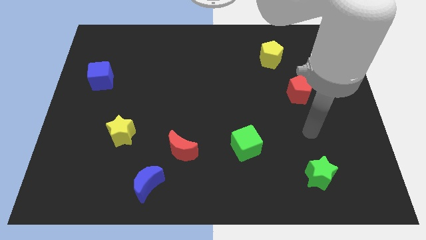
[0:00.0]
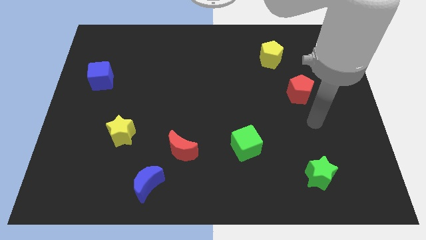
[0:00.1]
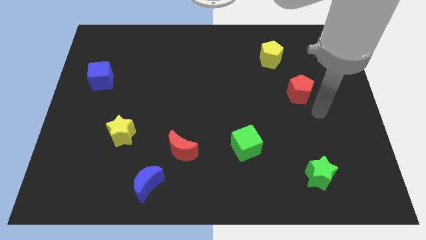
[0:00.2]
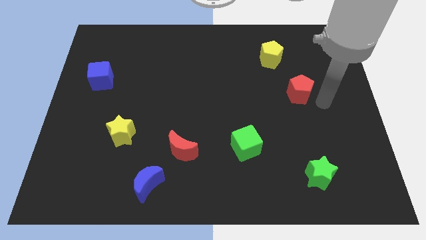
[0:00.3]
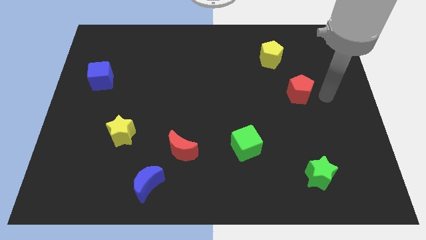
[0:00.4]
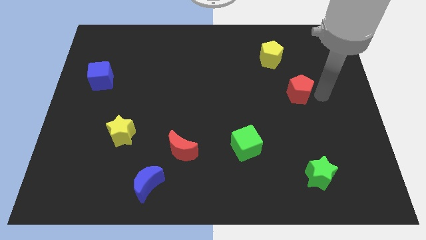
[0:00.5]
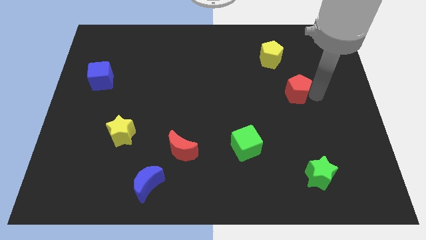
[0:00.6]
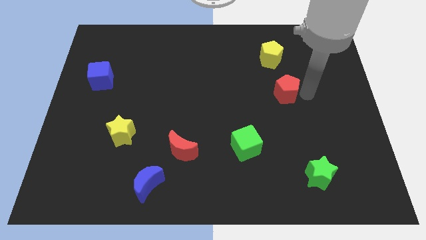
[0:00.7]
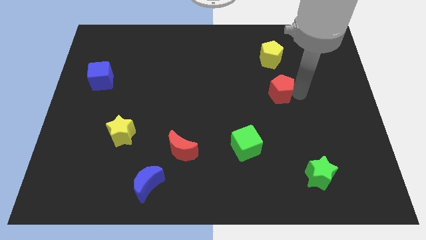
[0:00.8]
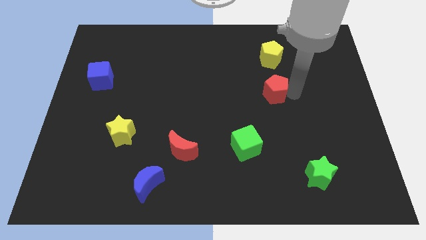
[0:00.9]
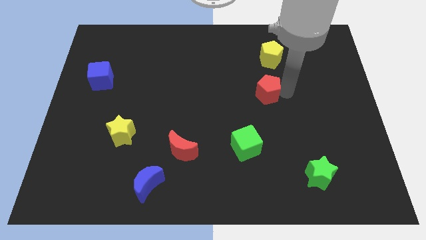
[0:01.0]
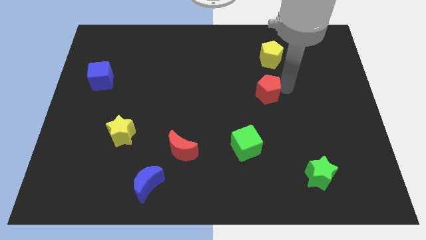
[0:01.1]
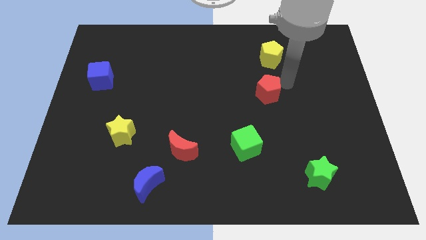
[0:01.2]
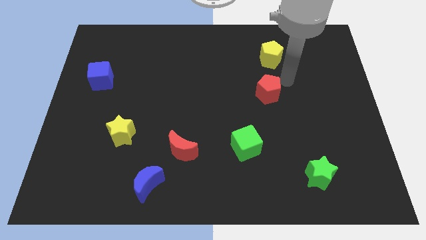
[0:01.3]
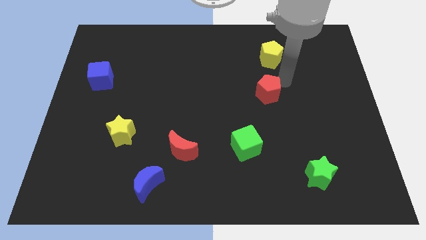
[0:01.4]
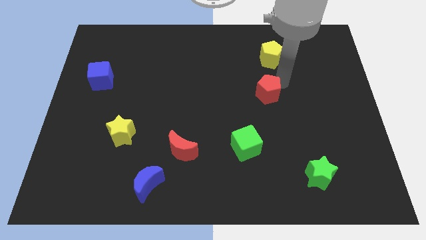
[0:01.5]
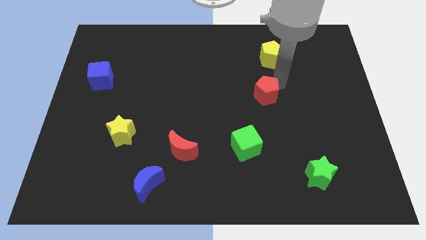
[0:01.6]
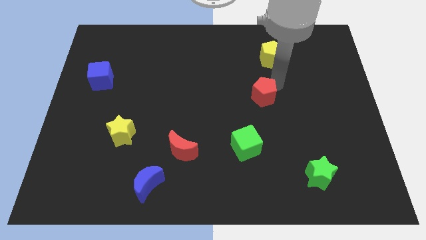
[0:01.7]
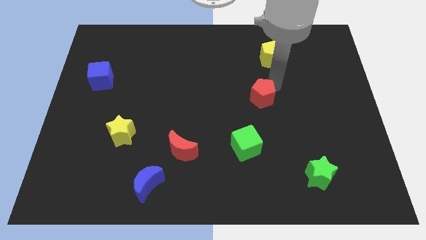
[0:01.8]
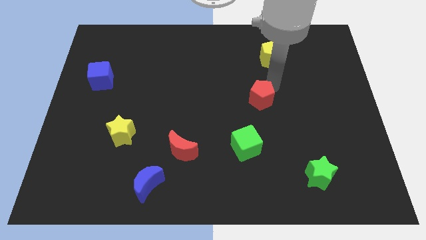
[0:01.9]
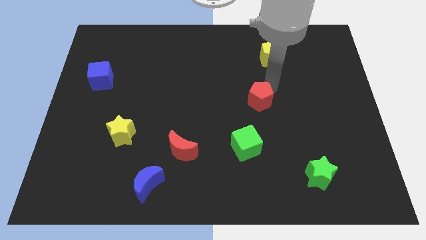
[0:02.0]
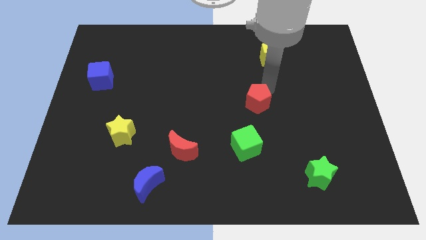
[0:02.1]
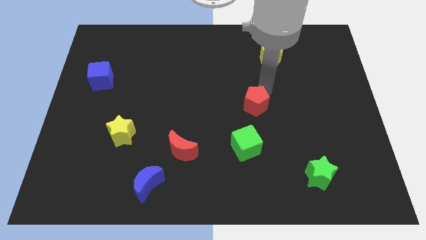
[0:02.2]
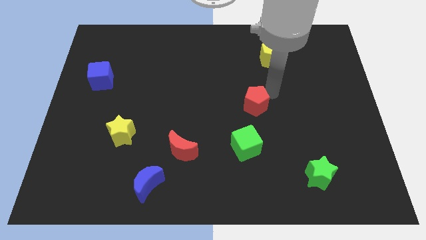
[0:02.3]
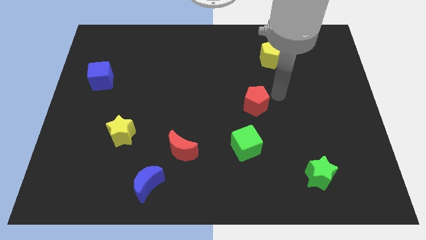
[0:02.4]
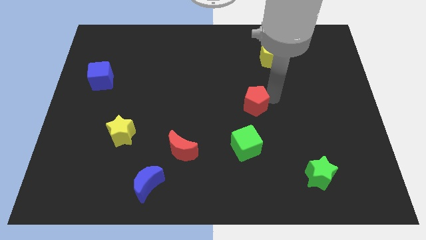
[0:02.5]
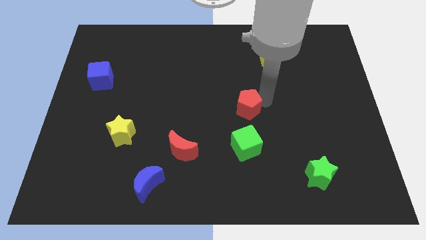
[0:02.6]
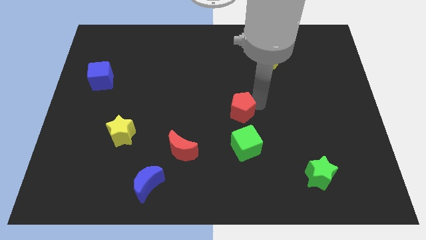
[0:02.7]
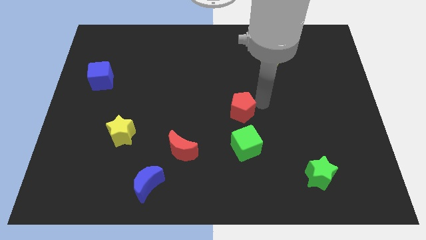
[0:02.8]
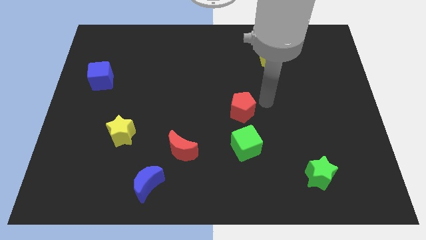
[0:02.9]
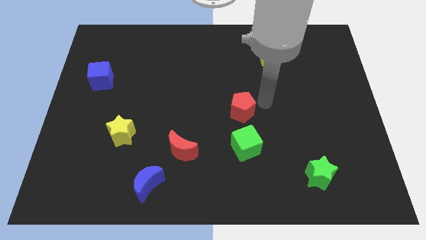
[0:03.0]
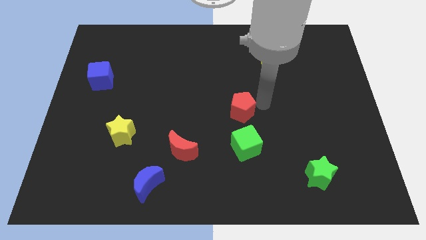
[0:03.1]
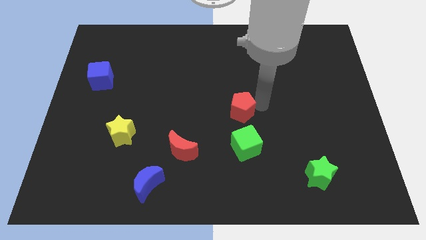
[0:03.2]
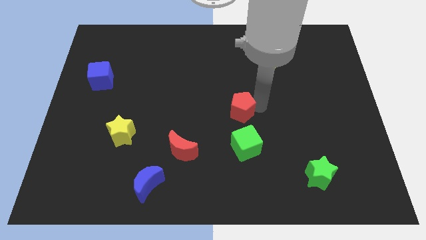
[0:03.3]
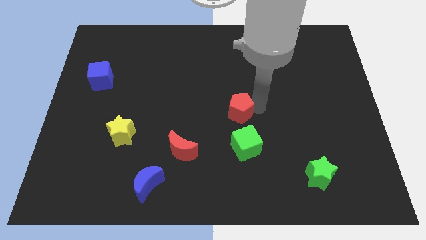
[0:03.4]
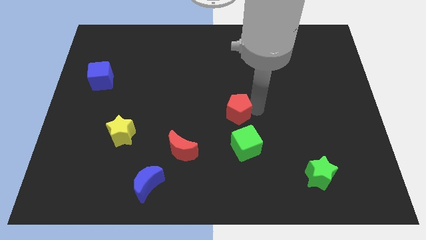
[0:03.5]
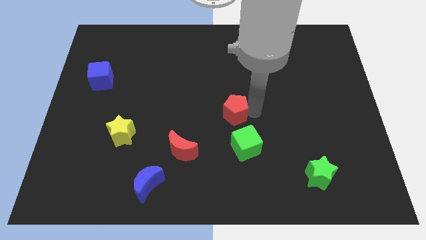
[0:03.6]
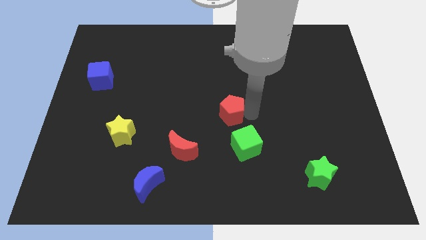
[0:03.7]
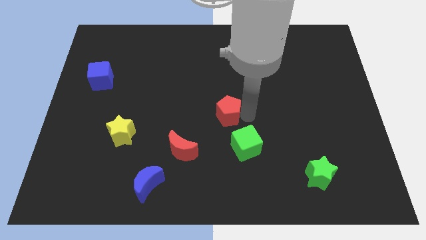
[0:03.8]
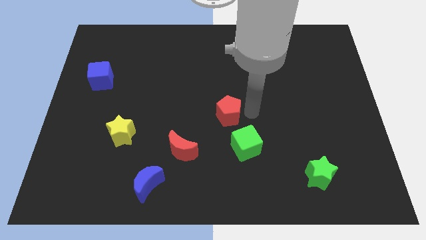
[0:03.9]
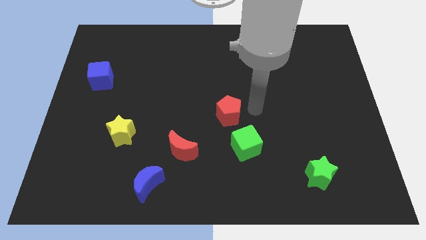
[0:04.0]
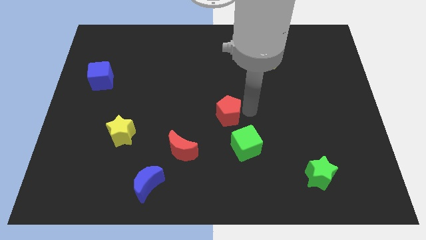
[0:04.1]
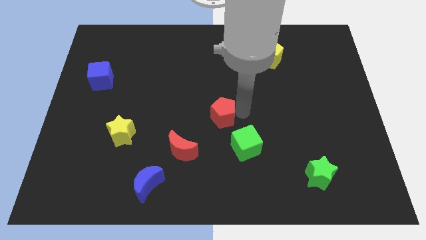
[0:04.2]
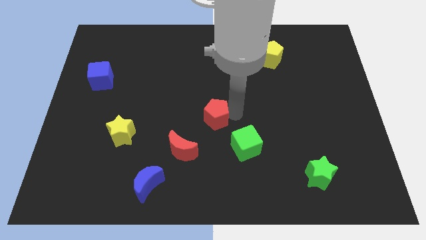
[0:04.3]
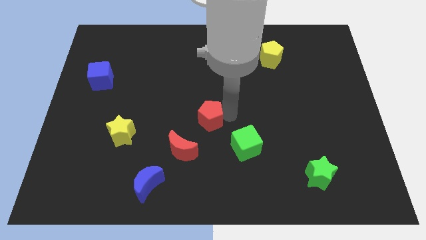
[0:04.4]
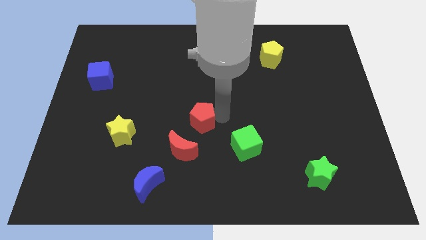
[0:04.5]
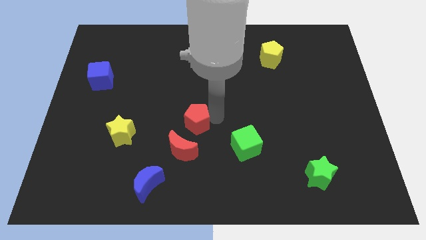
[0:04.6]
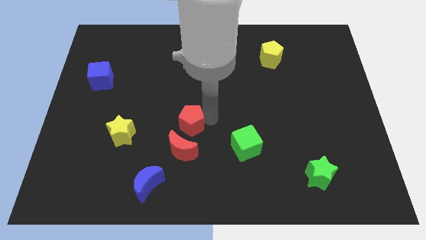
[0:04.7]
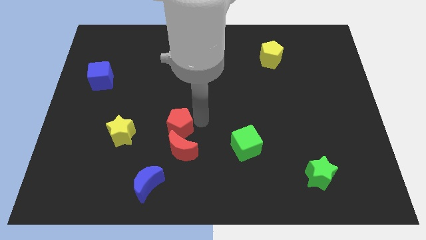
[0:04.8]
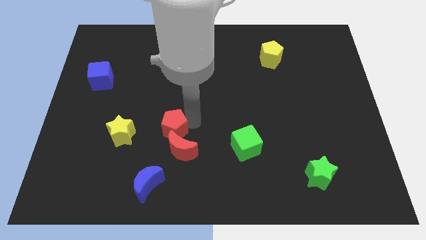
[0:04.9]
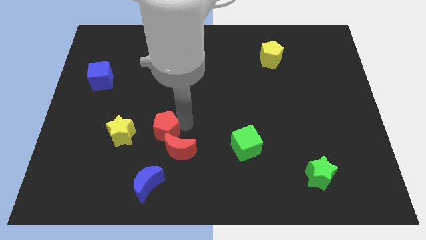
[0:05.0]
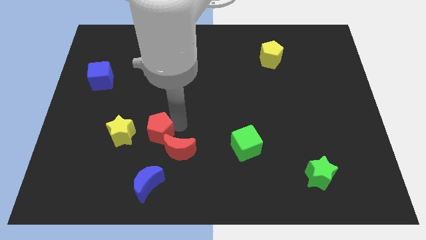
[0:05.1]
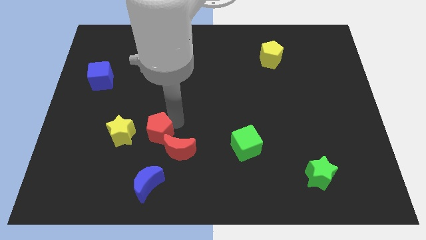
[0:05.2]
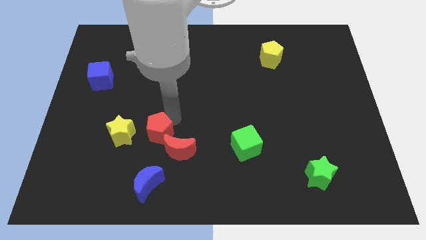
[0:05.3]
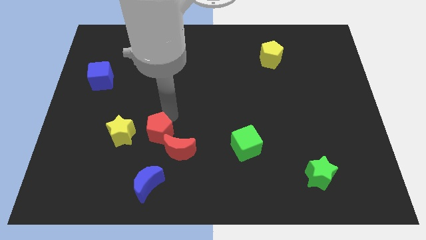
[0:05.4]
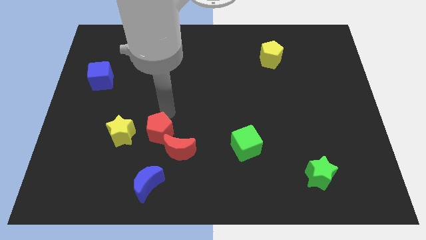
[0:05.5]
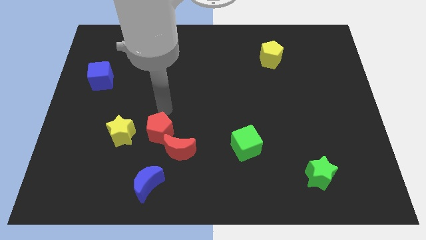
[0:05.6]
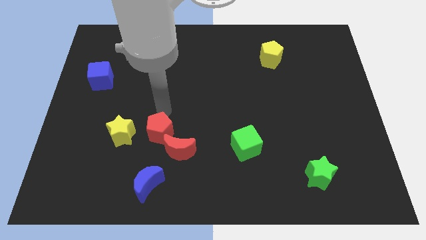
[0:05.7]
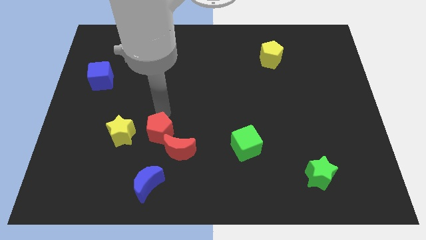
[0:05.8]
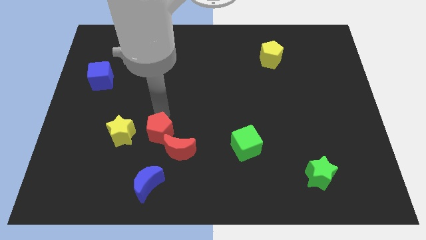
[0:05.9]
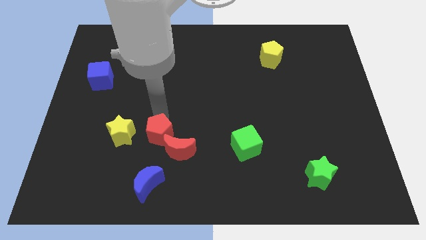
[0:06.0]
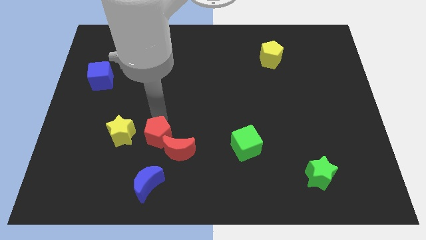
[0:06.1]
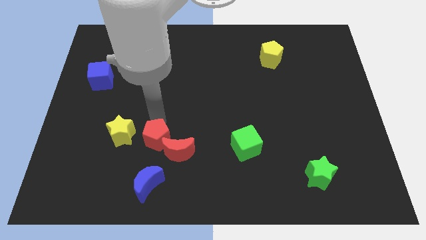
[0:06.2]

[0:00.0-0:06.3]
slide the red pentagon diagonally down and to the right of the yellow star
